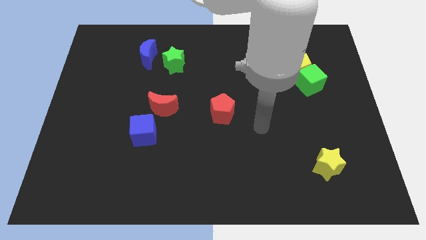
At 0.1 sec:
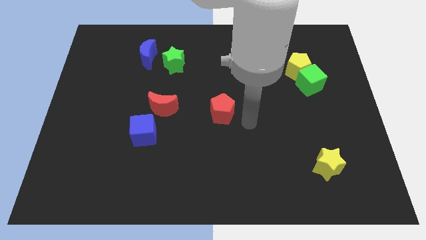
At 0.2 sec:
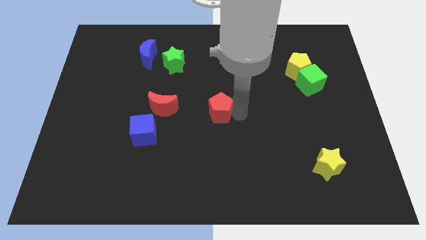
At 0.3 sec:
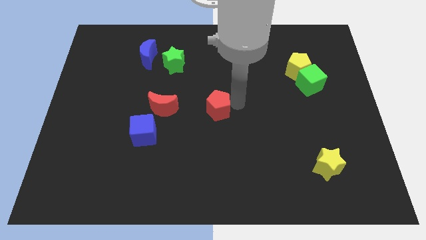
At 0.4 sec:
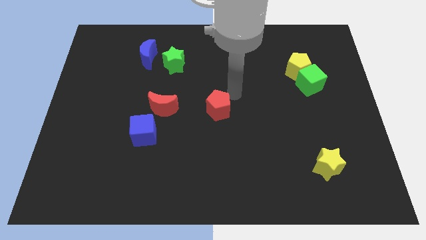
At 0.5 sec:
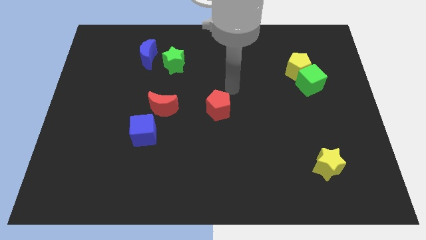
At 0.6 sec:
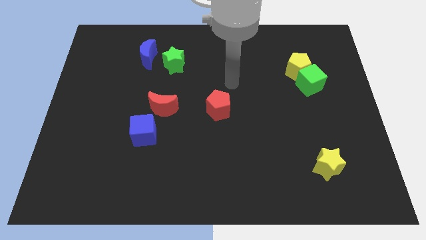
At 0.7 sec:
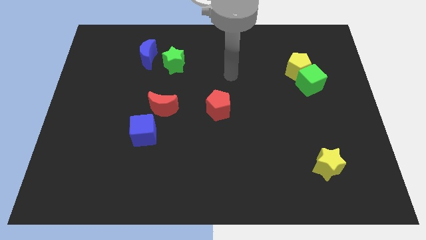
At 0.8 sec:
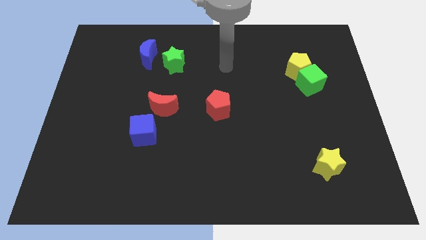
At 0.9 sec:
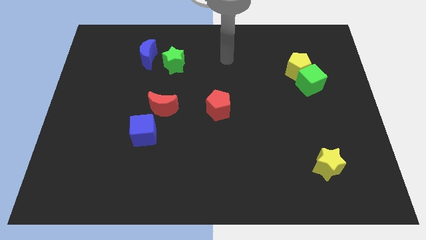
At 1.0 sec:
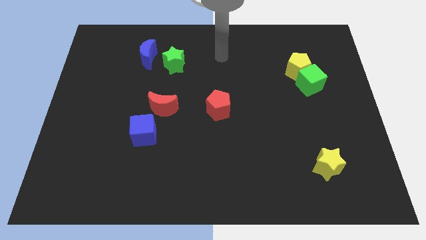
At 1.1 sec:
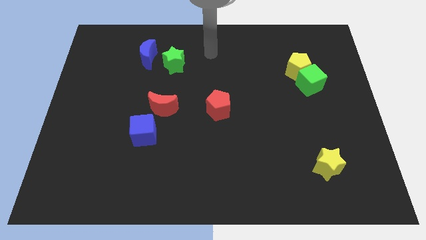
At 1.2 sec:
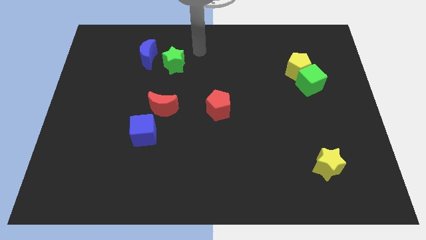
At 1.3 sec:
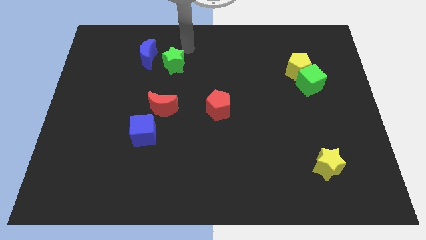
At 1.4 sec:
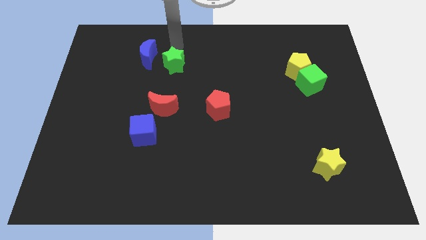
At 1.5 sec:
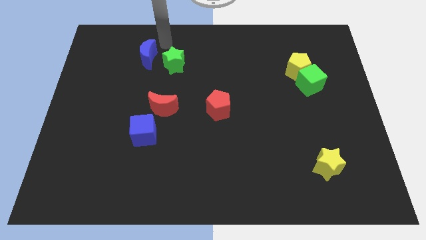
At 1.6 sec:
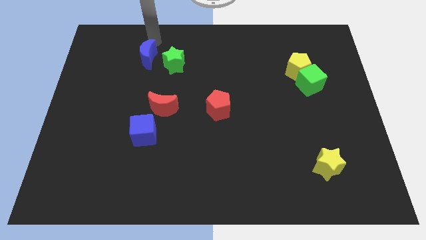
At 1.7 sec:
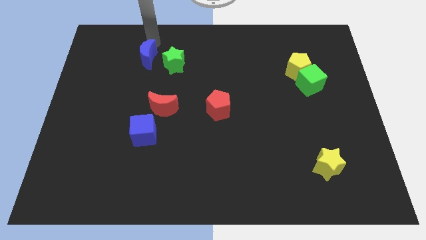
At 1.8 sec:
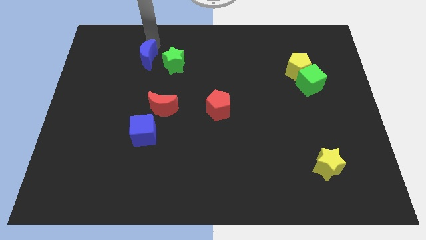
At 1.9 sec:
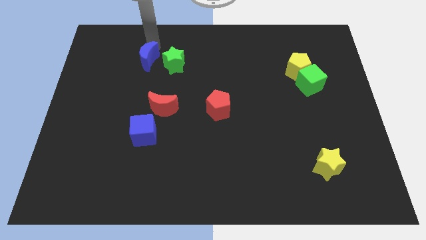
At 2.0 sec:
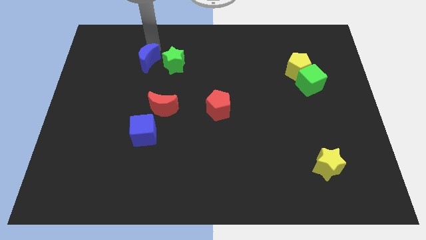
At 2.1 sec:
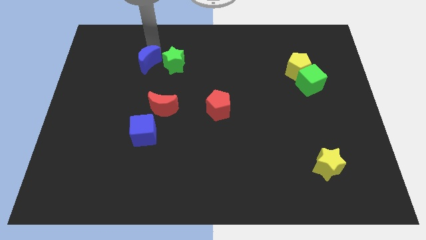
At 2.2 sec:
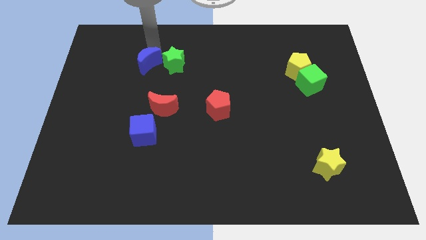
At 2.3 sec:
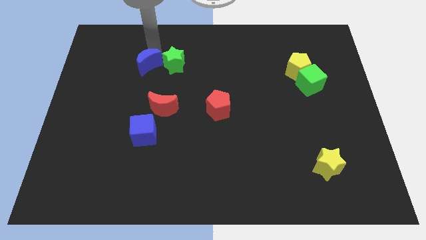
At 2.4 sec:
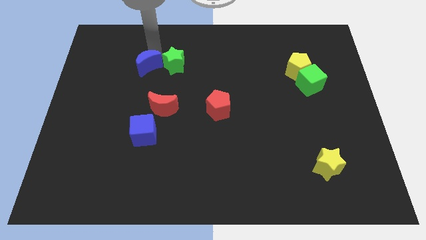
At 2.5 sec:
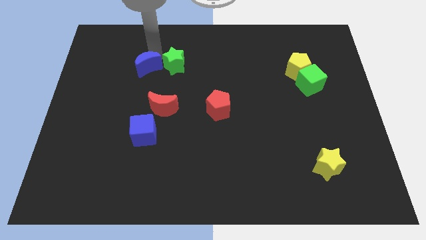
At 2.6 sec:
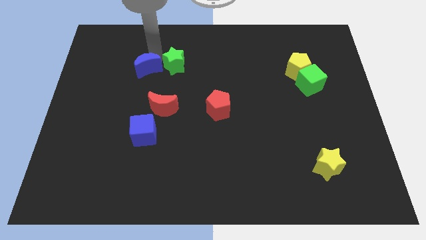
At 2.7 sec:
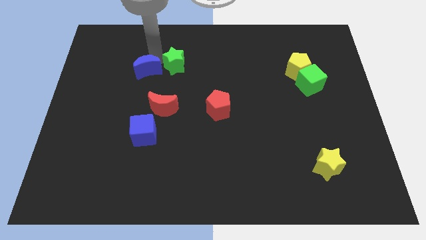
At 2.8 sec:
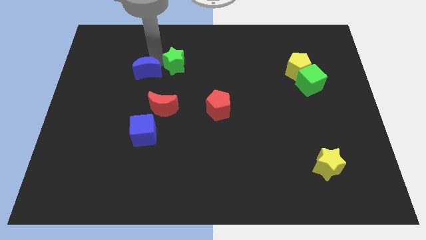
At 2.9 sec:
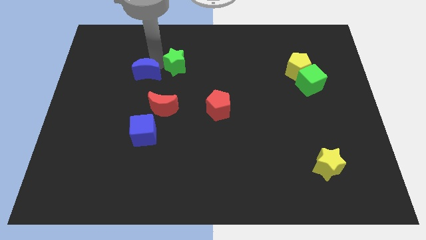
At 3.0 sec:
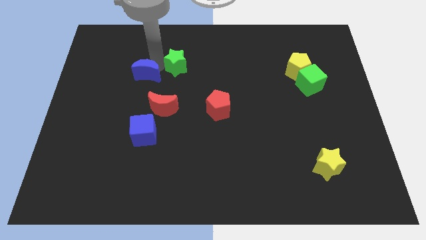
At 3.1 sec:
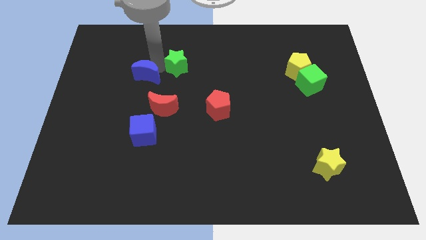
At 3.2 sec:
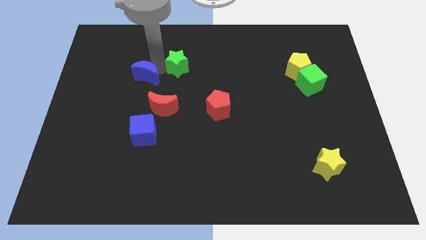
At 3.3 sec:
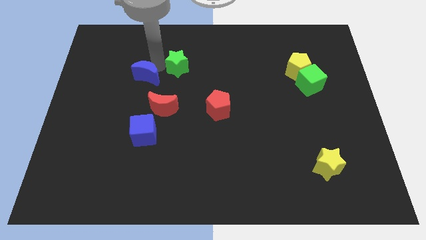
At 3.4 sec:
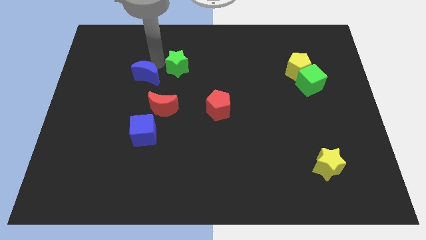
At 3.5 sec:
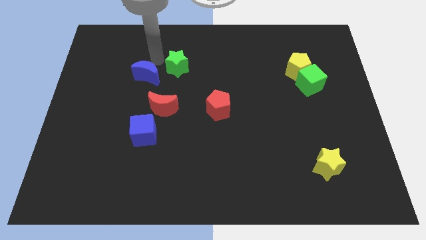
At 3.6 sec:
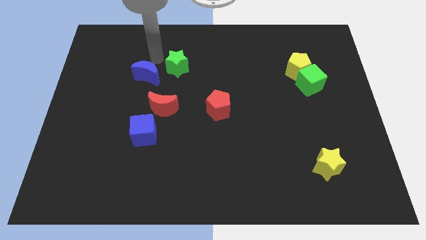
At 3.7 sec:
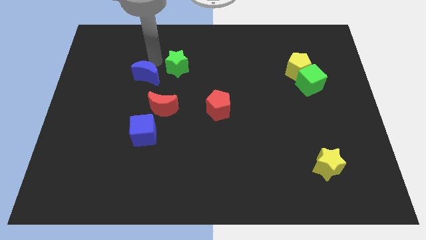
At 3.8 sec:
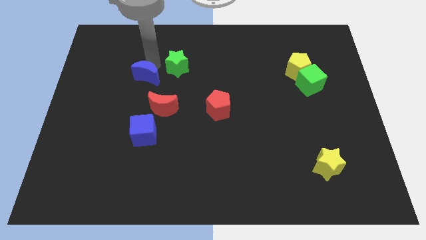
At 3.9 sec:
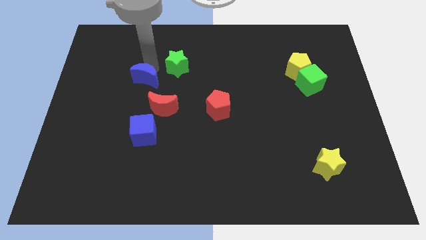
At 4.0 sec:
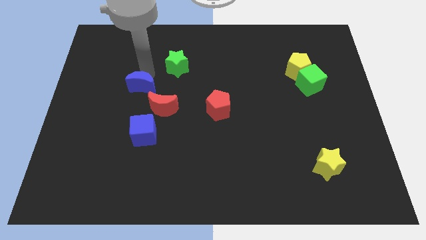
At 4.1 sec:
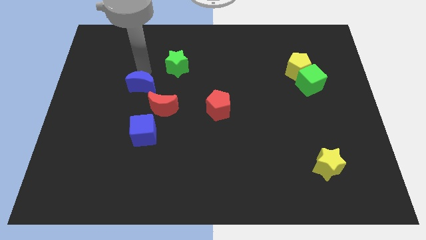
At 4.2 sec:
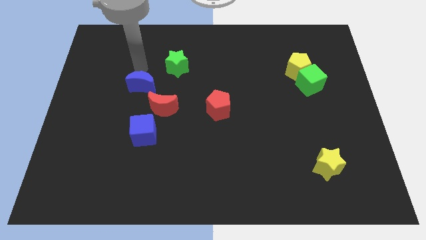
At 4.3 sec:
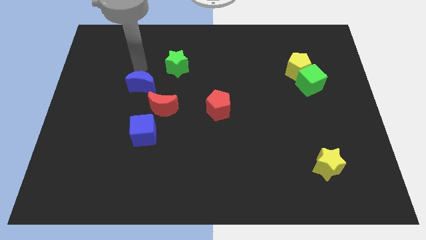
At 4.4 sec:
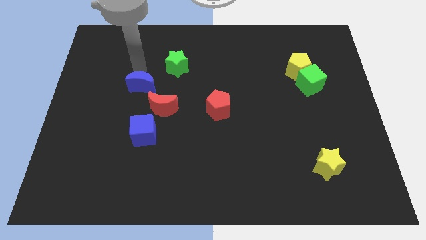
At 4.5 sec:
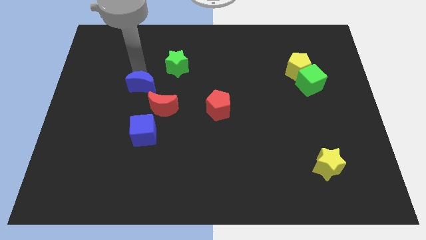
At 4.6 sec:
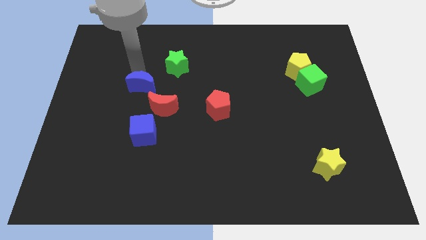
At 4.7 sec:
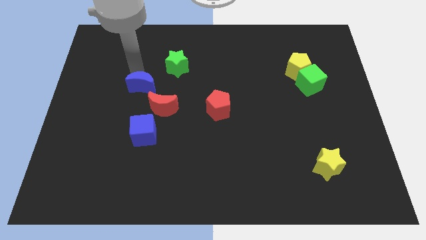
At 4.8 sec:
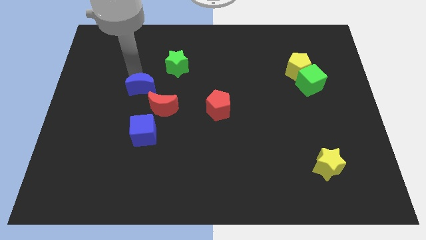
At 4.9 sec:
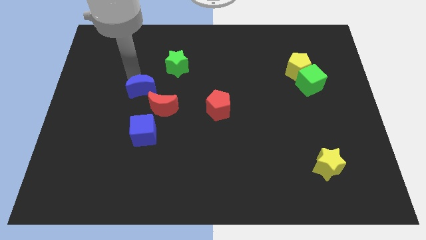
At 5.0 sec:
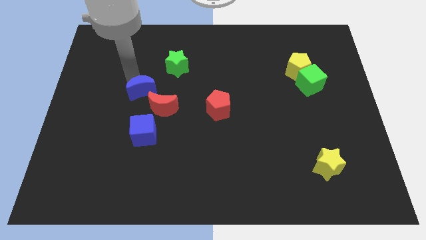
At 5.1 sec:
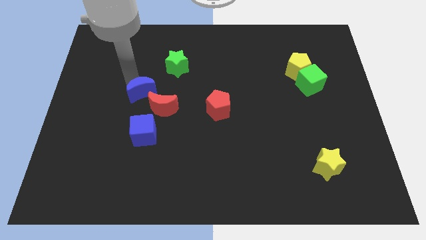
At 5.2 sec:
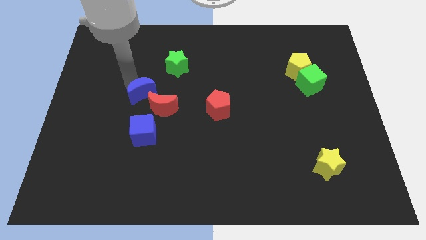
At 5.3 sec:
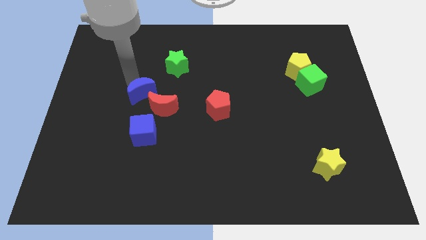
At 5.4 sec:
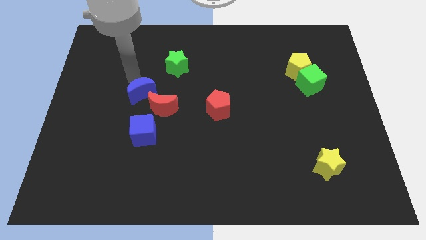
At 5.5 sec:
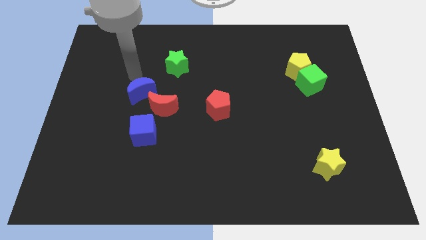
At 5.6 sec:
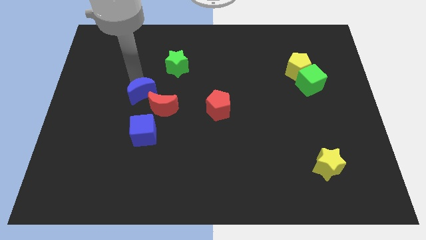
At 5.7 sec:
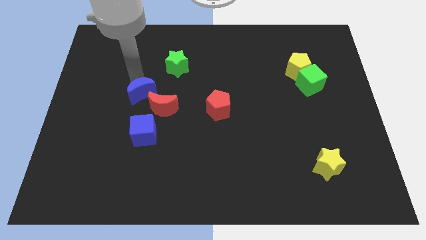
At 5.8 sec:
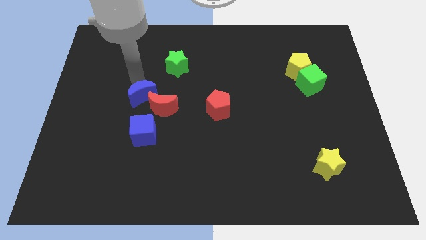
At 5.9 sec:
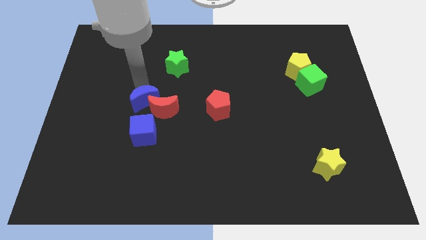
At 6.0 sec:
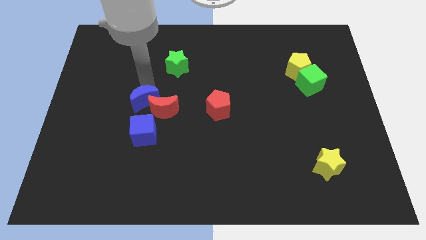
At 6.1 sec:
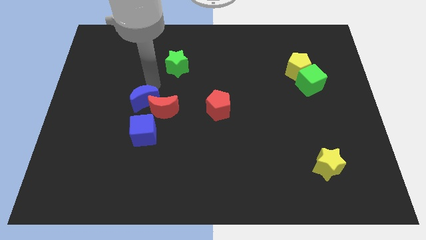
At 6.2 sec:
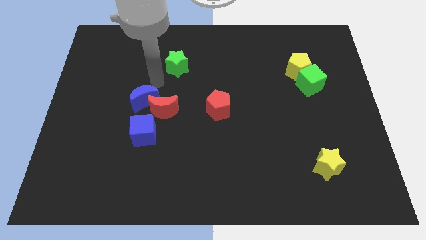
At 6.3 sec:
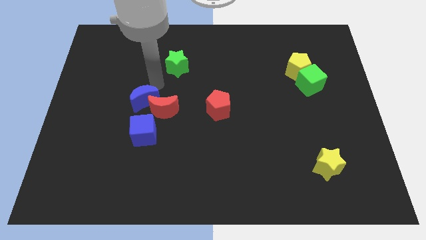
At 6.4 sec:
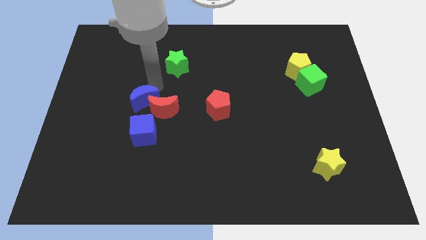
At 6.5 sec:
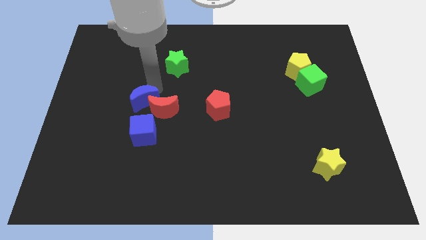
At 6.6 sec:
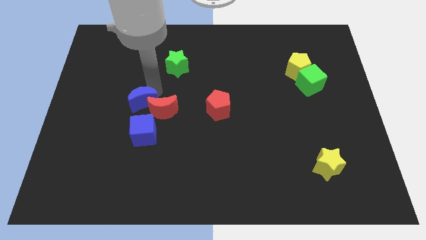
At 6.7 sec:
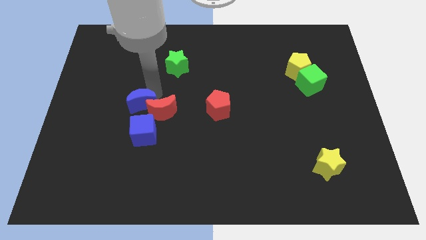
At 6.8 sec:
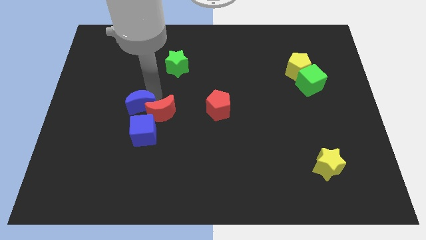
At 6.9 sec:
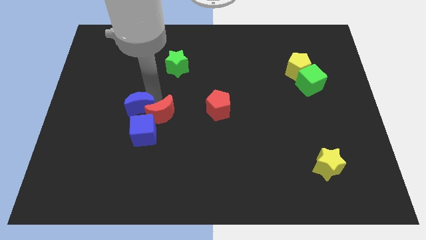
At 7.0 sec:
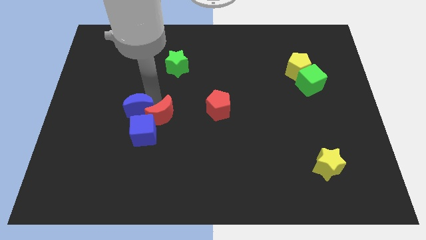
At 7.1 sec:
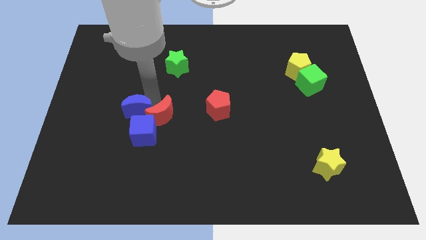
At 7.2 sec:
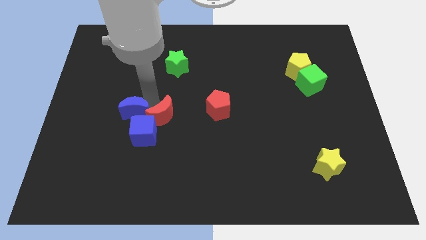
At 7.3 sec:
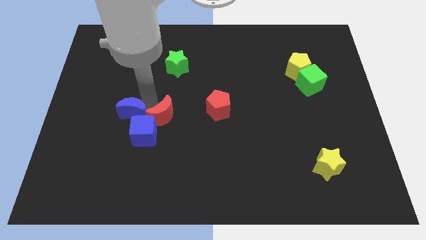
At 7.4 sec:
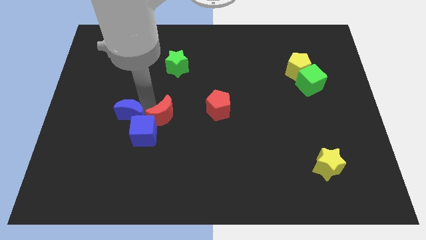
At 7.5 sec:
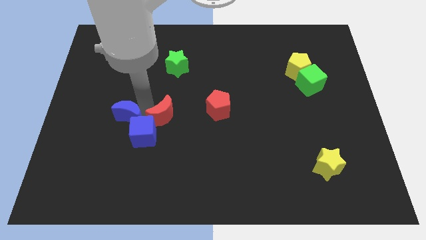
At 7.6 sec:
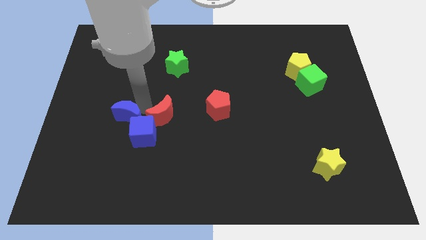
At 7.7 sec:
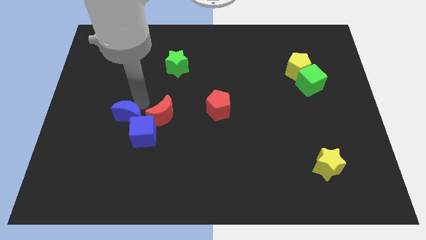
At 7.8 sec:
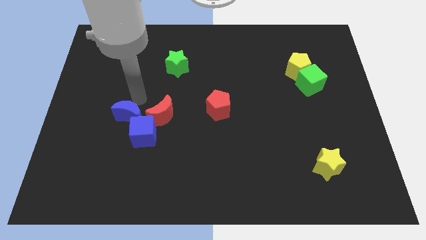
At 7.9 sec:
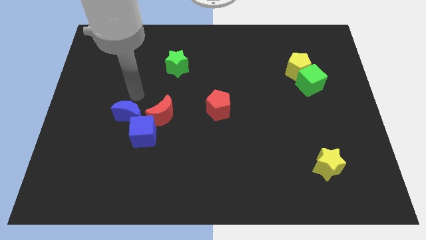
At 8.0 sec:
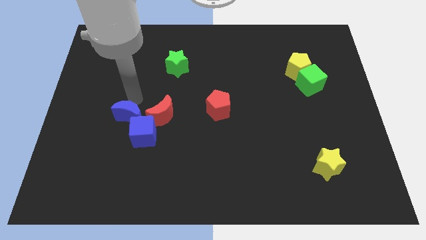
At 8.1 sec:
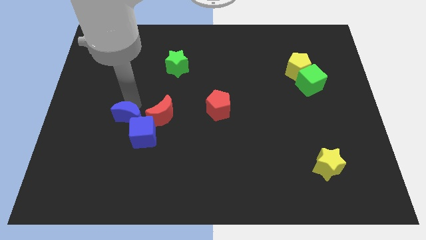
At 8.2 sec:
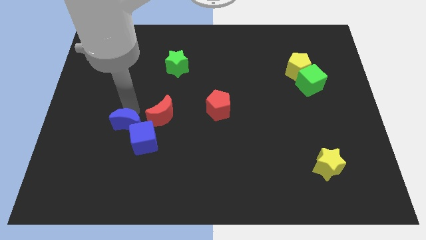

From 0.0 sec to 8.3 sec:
slide the blue moon diagonally down and to the left of the red moon
